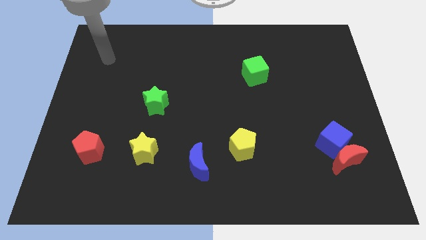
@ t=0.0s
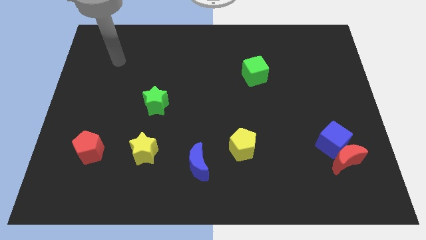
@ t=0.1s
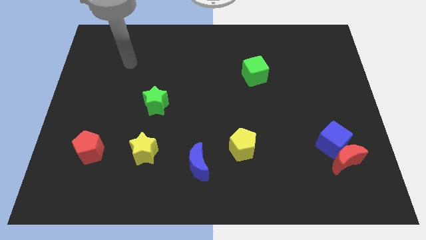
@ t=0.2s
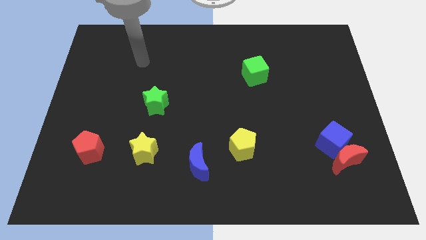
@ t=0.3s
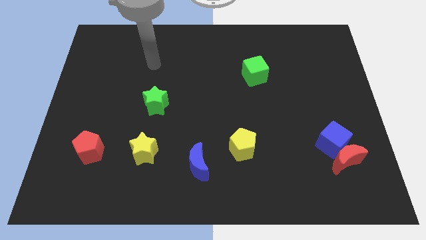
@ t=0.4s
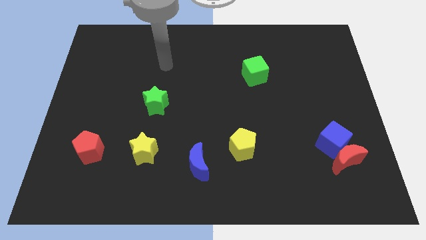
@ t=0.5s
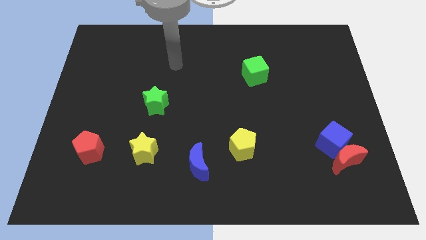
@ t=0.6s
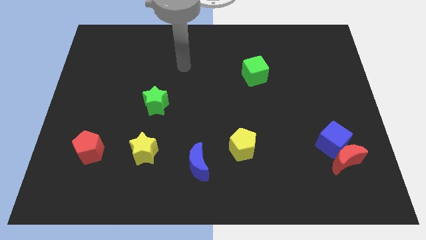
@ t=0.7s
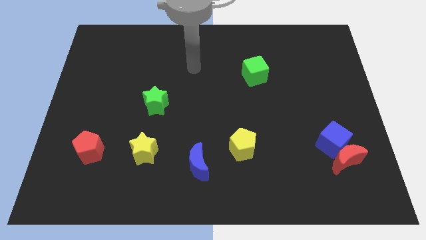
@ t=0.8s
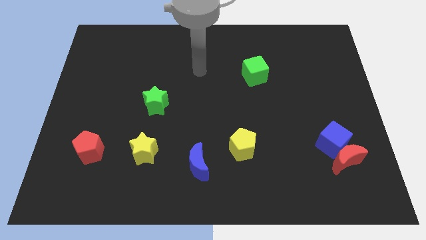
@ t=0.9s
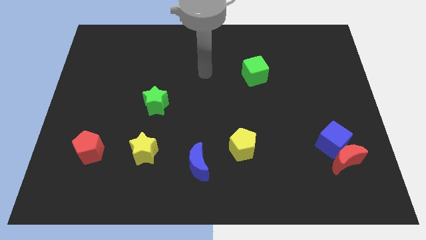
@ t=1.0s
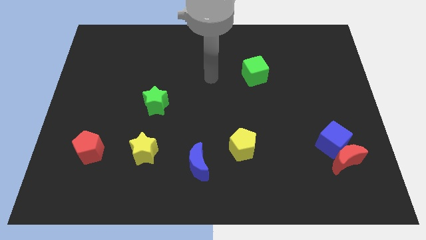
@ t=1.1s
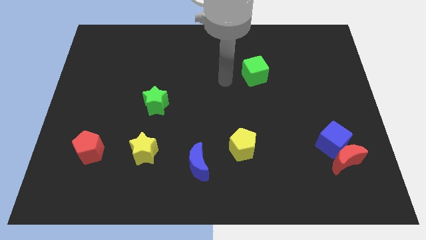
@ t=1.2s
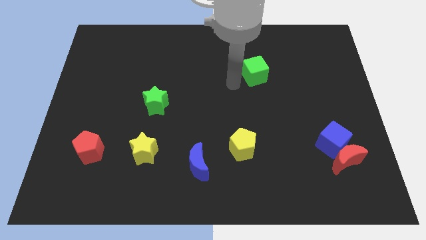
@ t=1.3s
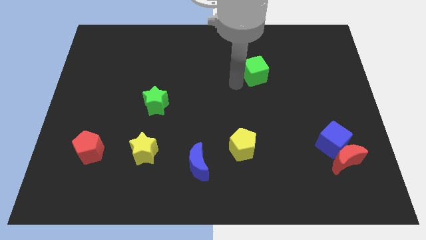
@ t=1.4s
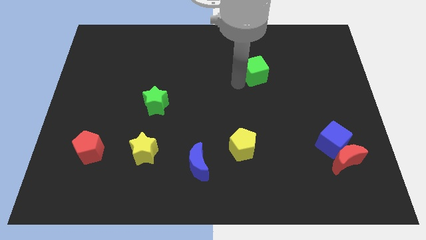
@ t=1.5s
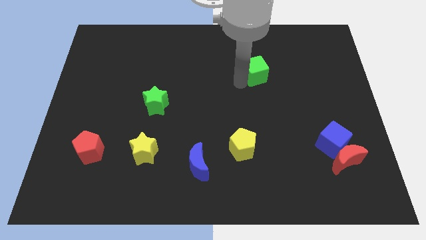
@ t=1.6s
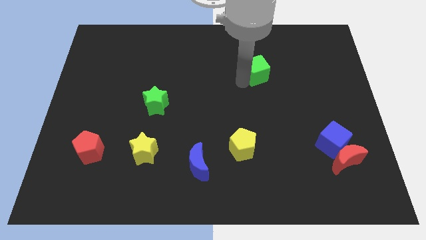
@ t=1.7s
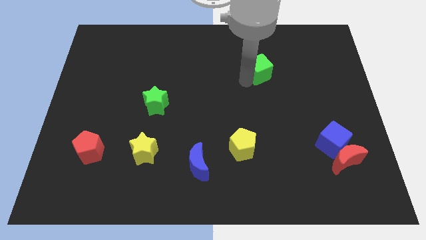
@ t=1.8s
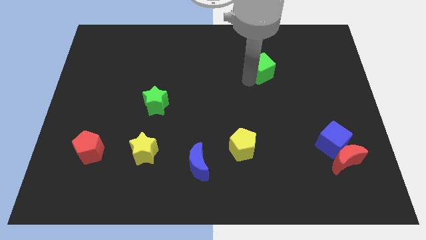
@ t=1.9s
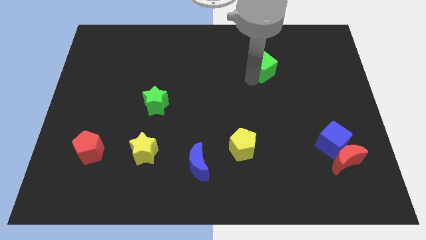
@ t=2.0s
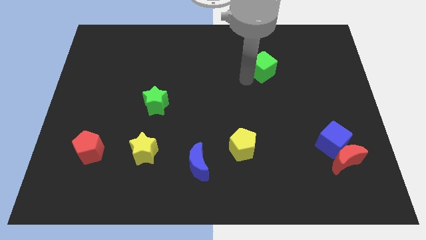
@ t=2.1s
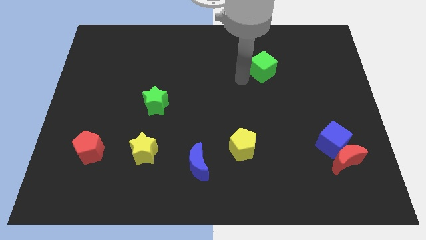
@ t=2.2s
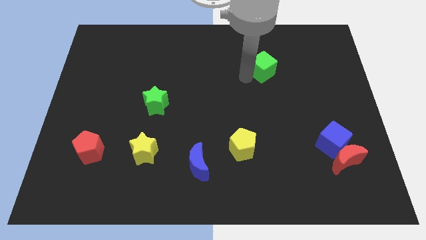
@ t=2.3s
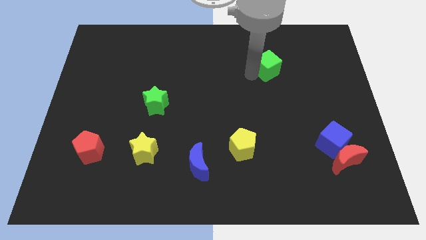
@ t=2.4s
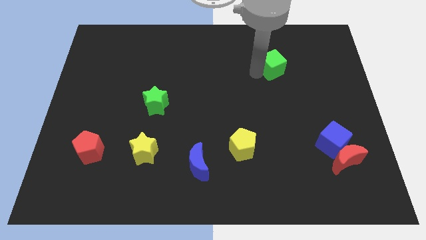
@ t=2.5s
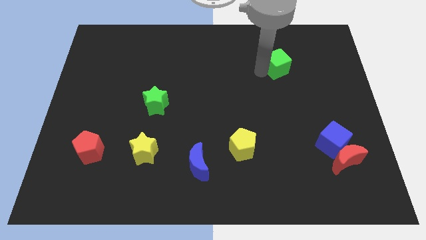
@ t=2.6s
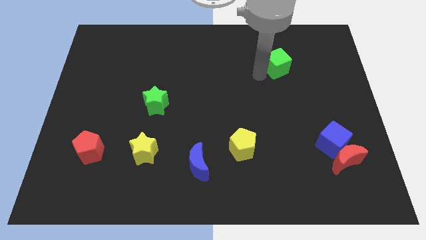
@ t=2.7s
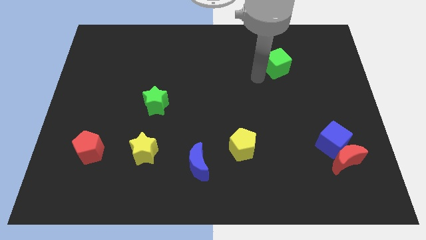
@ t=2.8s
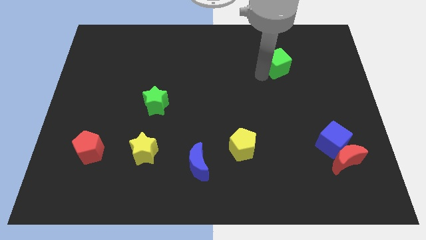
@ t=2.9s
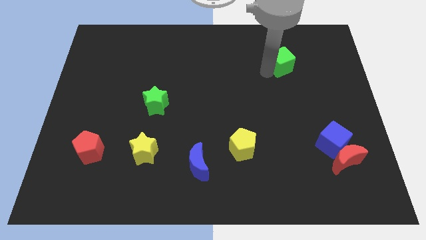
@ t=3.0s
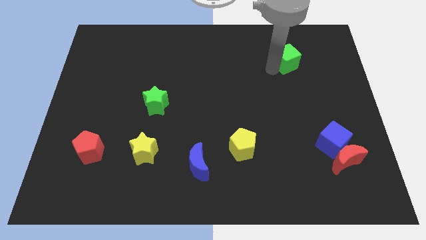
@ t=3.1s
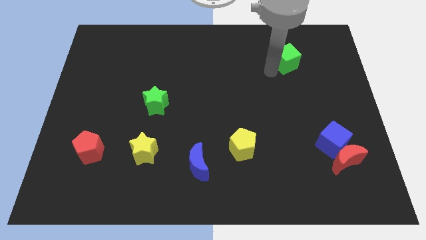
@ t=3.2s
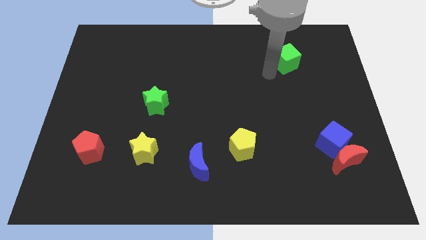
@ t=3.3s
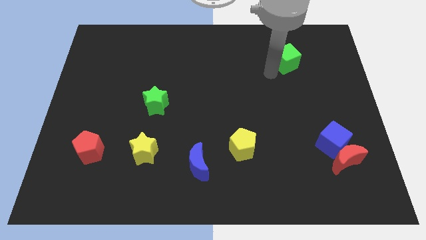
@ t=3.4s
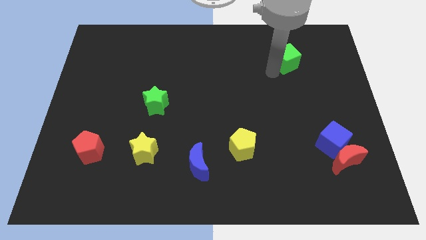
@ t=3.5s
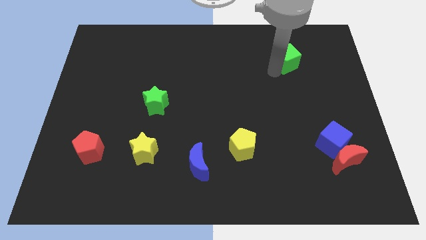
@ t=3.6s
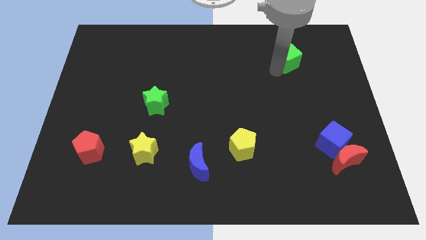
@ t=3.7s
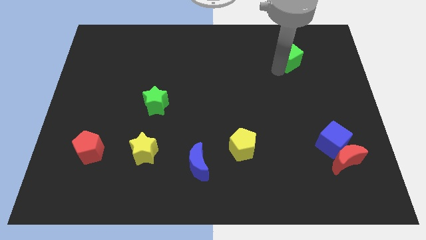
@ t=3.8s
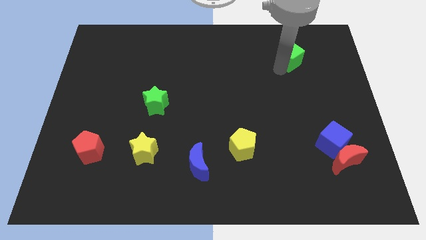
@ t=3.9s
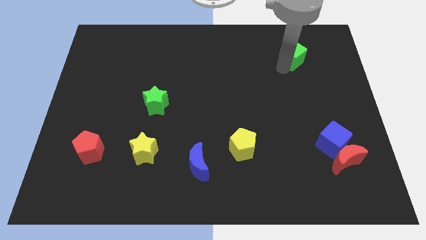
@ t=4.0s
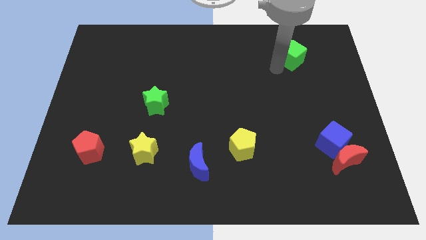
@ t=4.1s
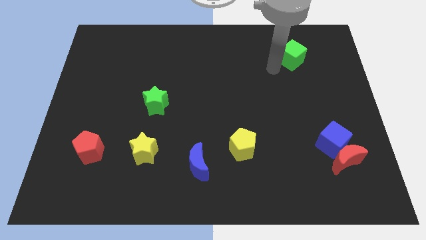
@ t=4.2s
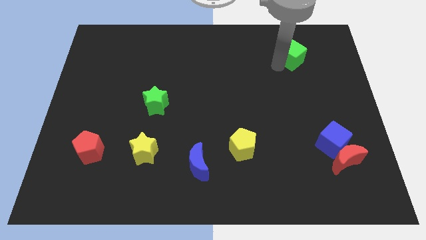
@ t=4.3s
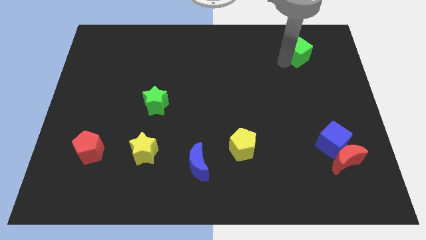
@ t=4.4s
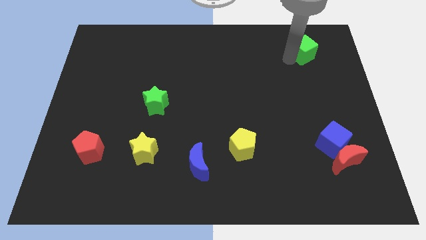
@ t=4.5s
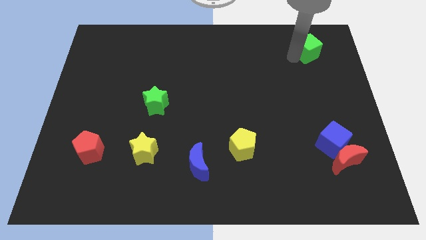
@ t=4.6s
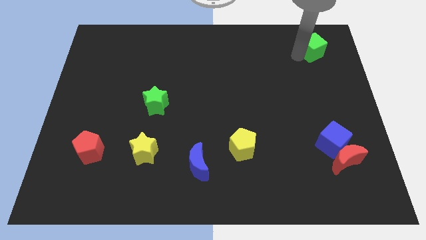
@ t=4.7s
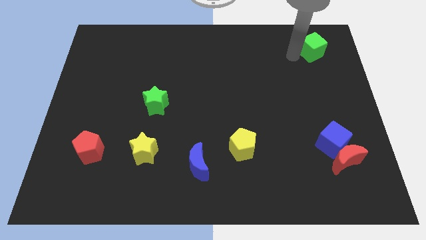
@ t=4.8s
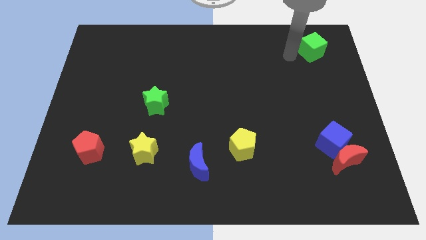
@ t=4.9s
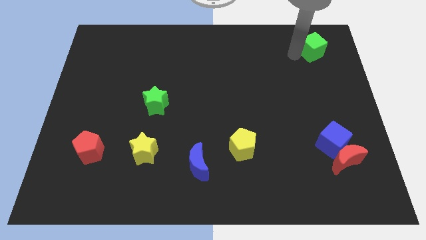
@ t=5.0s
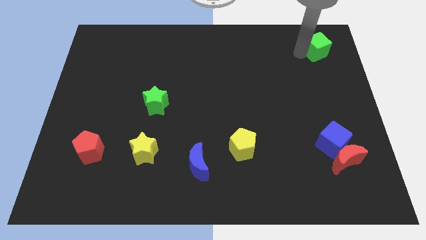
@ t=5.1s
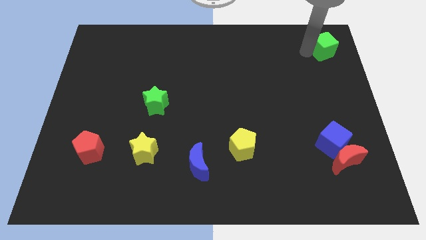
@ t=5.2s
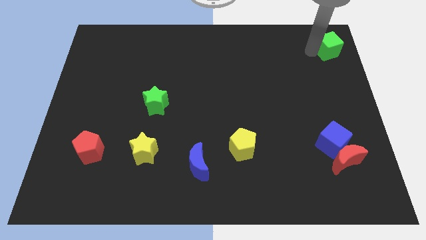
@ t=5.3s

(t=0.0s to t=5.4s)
push the green cube to the upper right corner

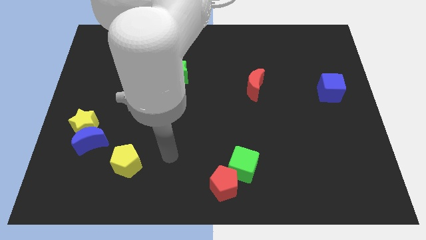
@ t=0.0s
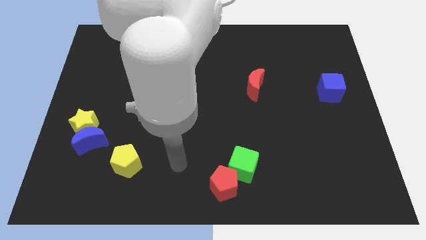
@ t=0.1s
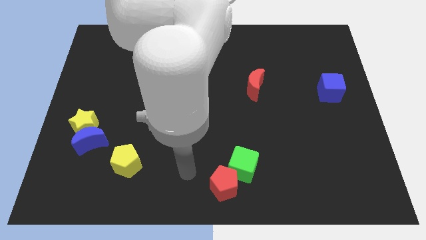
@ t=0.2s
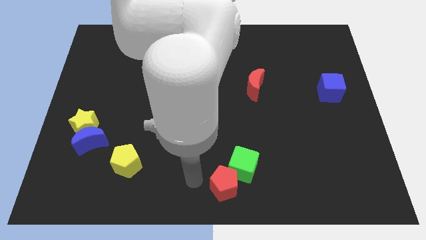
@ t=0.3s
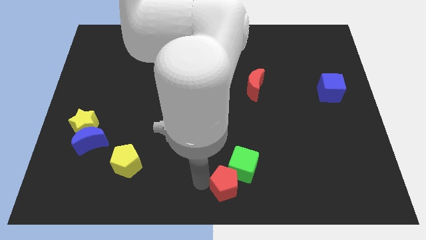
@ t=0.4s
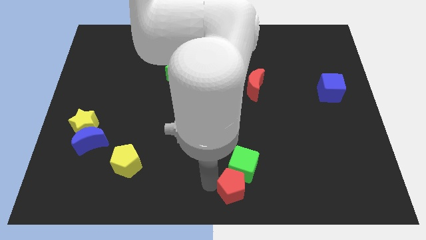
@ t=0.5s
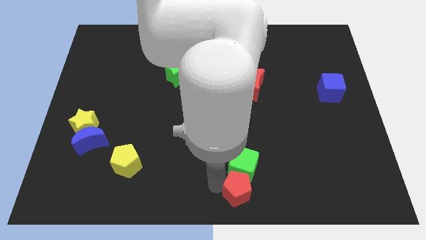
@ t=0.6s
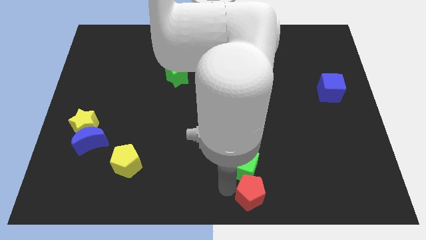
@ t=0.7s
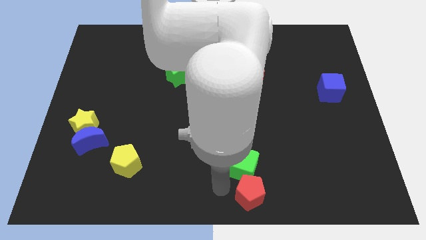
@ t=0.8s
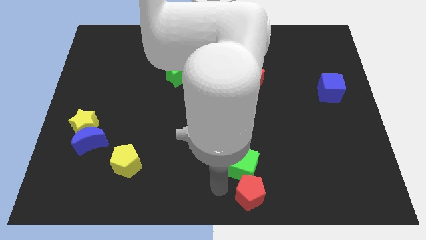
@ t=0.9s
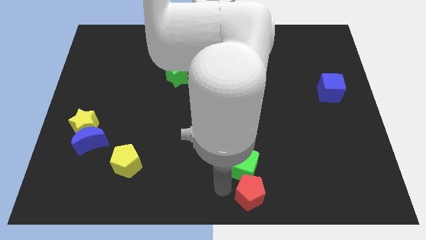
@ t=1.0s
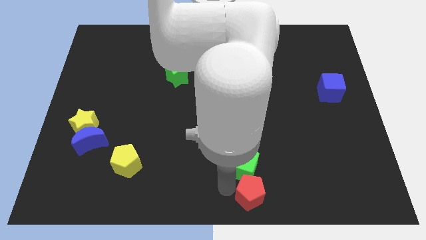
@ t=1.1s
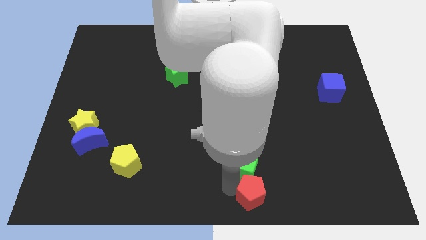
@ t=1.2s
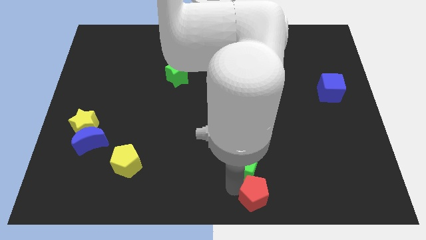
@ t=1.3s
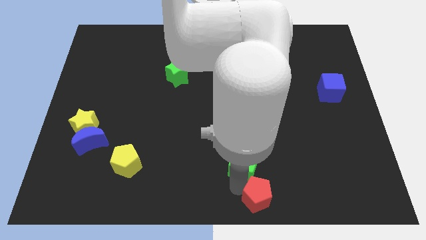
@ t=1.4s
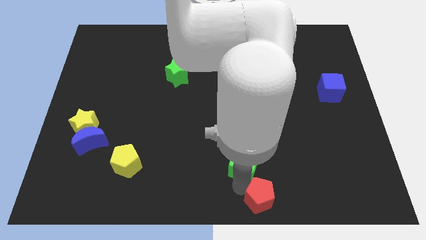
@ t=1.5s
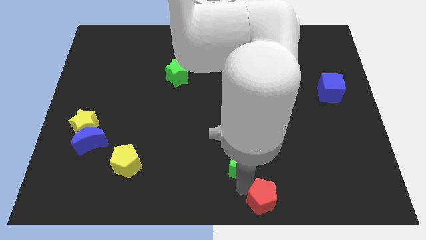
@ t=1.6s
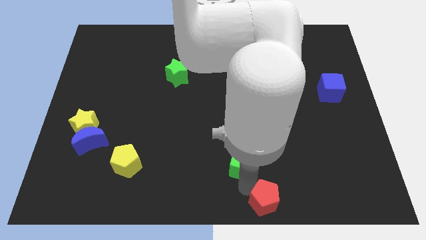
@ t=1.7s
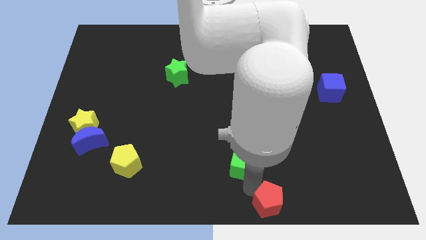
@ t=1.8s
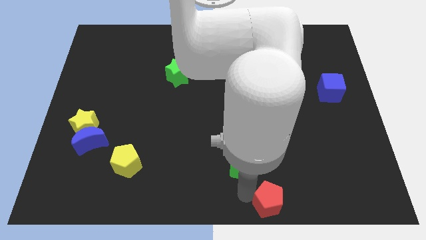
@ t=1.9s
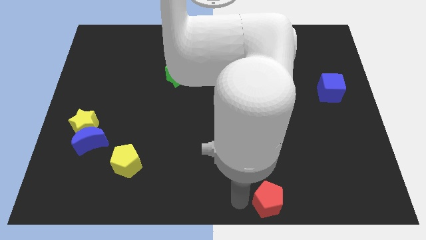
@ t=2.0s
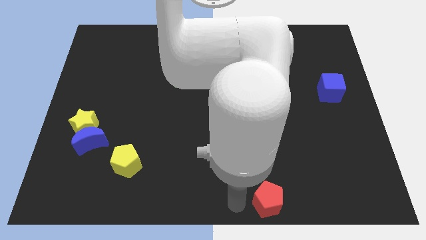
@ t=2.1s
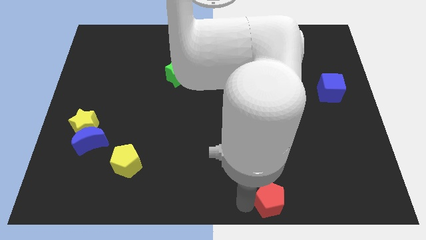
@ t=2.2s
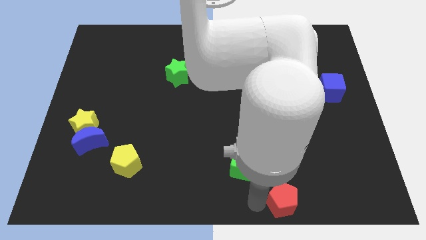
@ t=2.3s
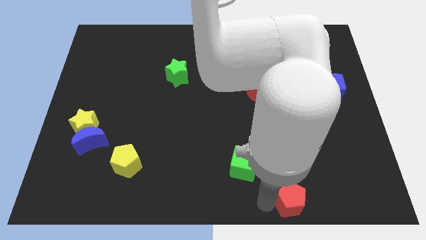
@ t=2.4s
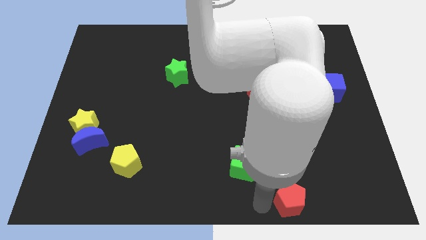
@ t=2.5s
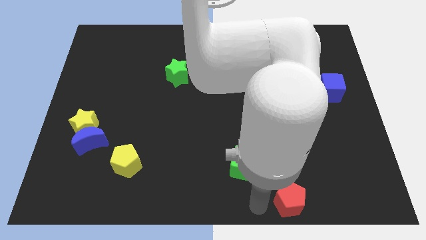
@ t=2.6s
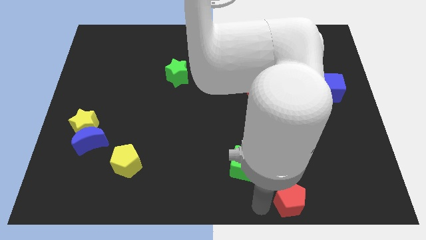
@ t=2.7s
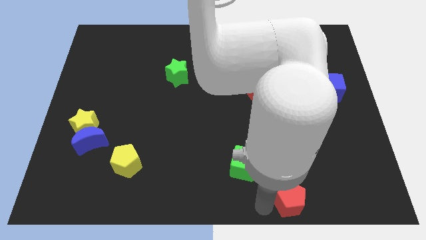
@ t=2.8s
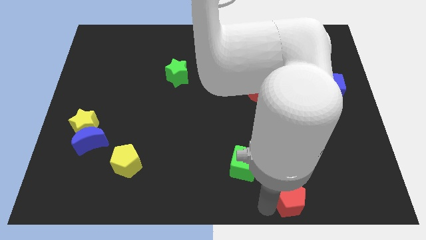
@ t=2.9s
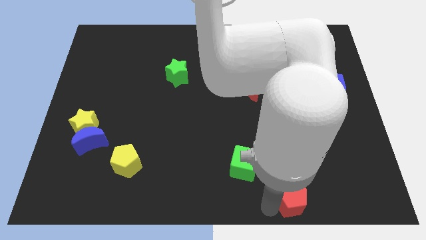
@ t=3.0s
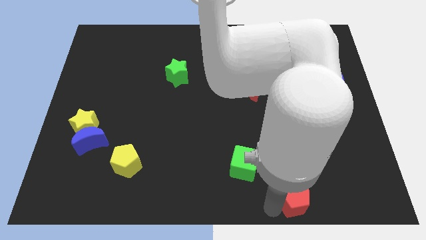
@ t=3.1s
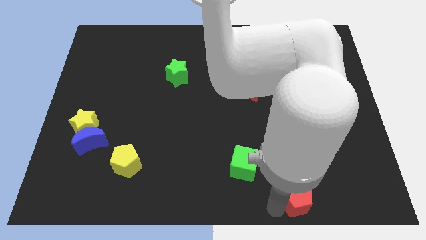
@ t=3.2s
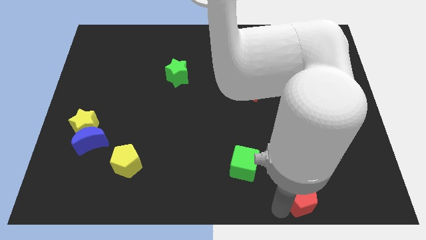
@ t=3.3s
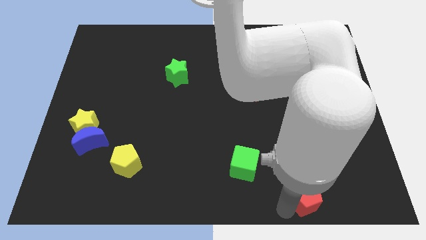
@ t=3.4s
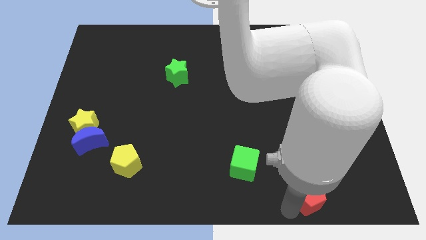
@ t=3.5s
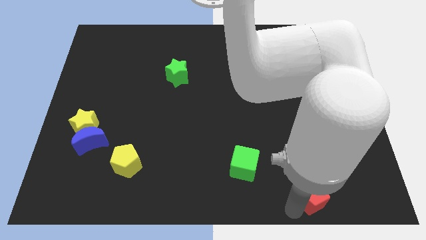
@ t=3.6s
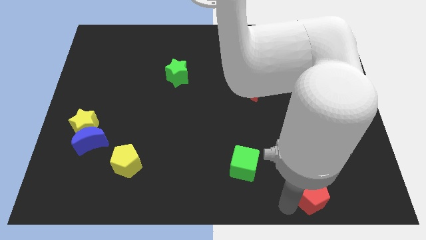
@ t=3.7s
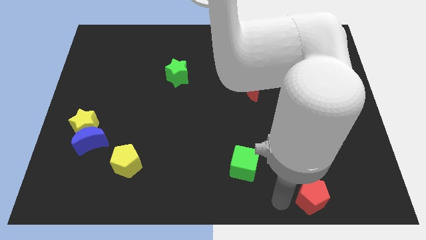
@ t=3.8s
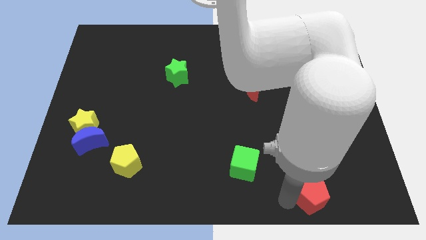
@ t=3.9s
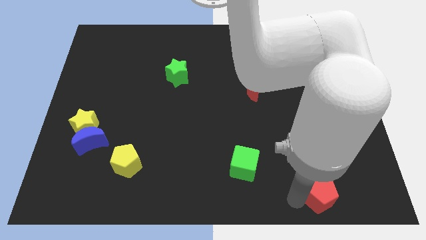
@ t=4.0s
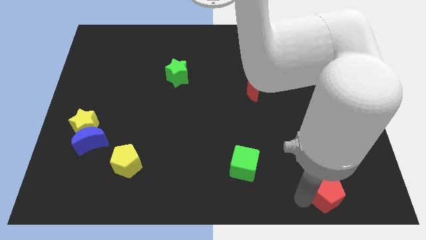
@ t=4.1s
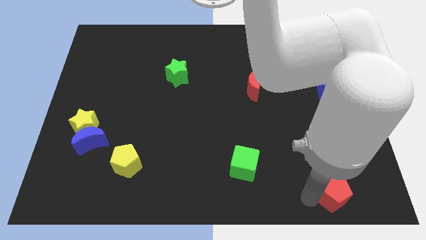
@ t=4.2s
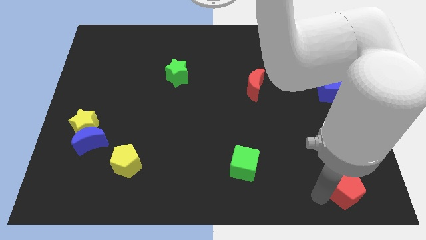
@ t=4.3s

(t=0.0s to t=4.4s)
slide the red pentagon to the bottom right corner
